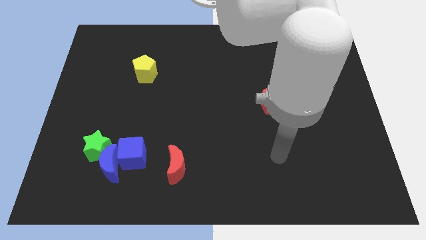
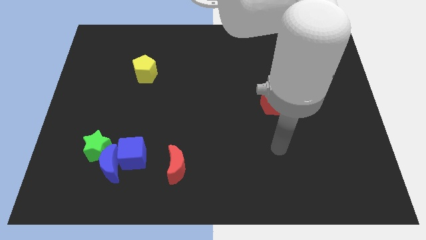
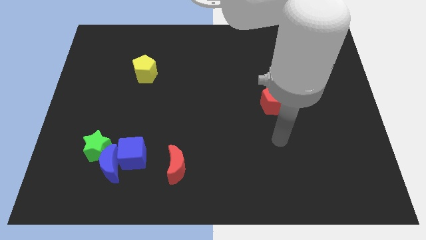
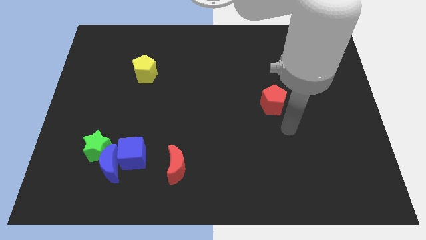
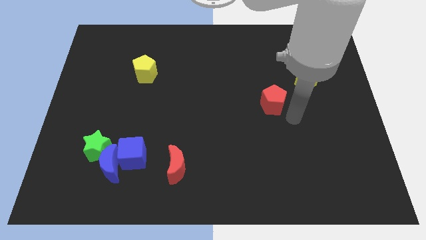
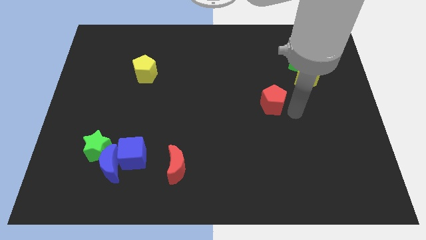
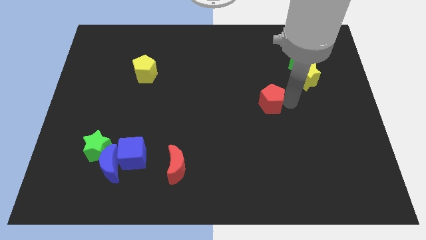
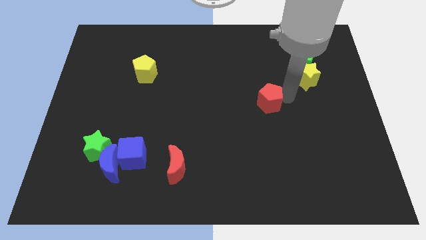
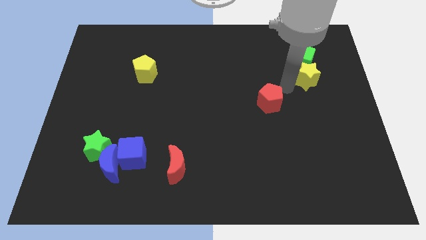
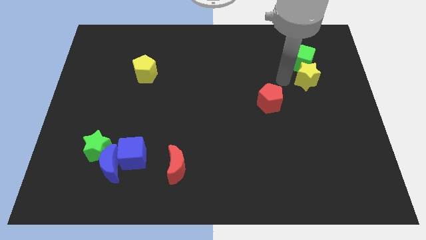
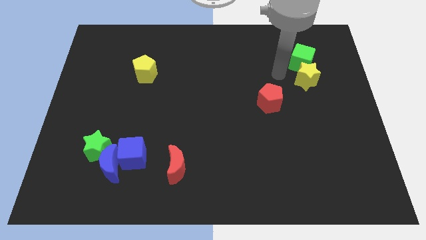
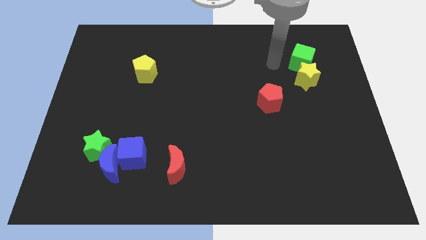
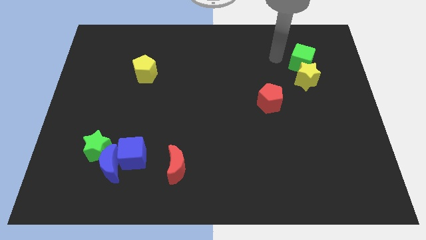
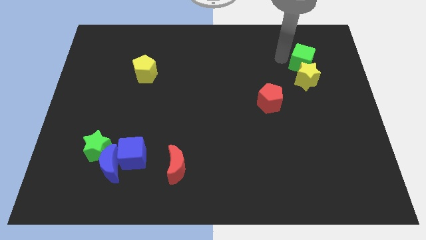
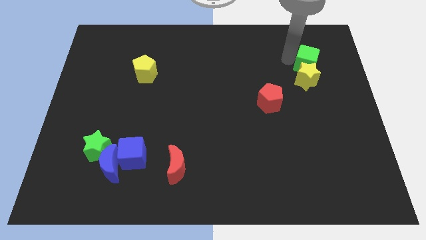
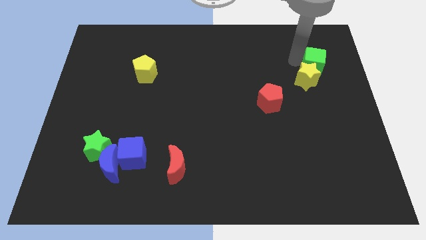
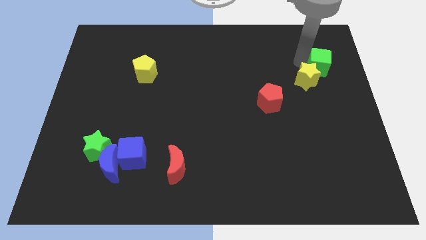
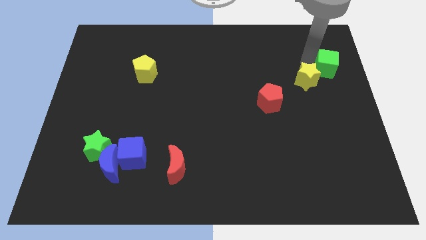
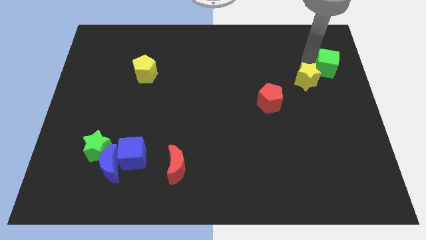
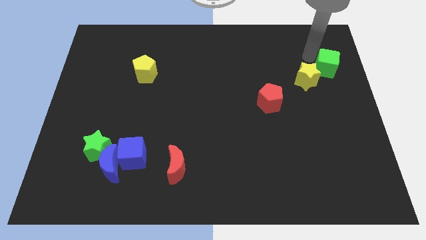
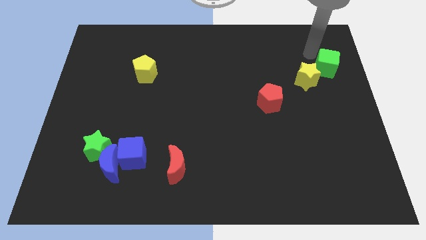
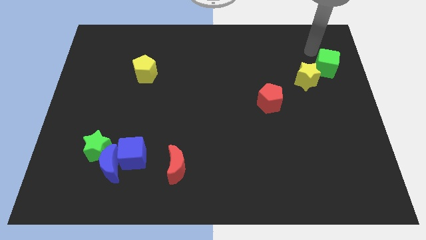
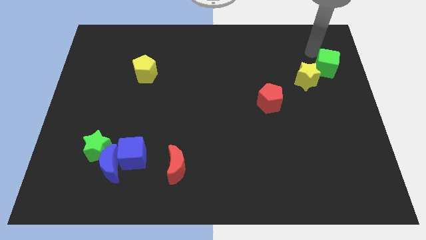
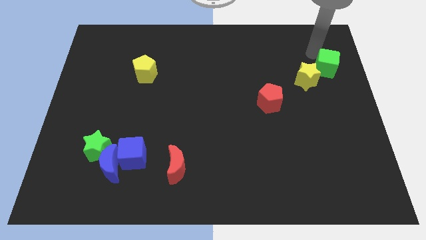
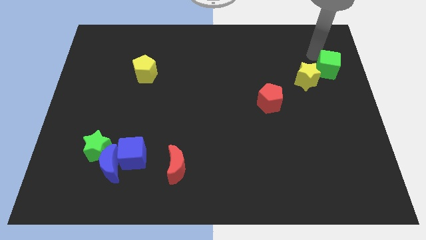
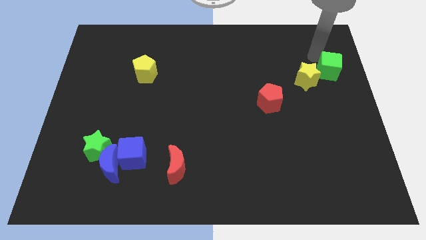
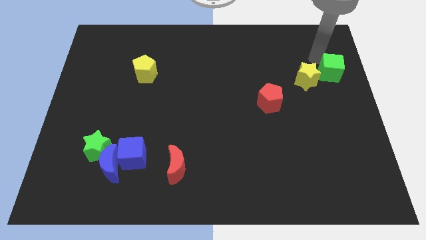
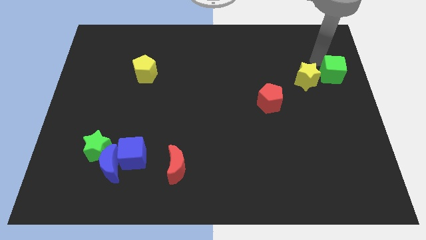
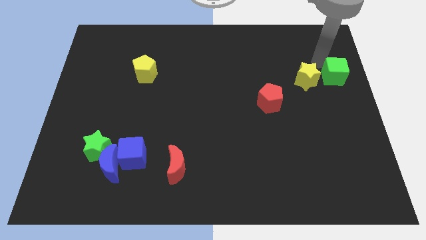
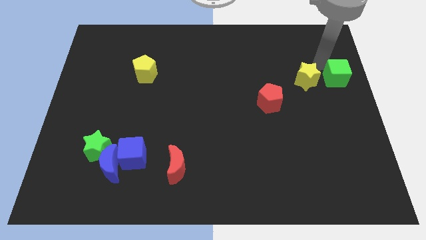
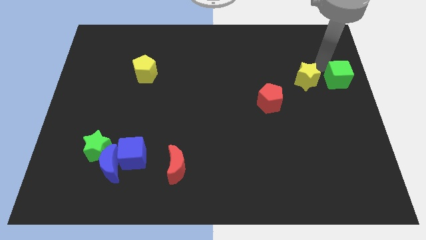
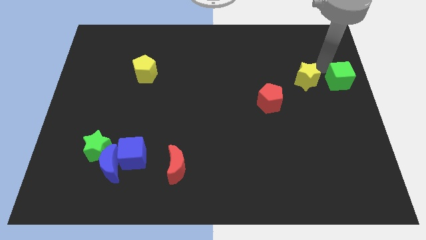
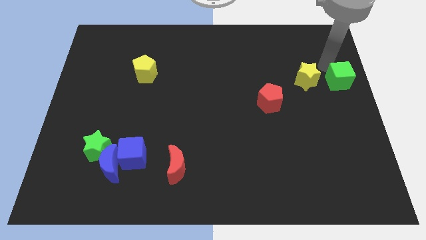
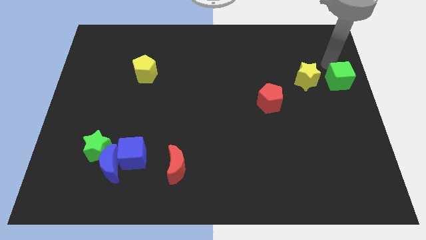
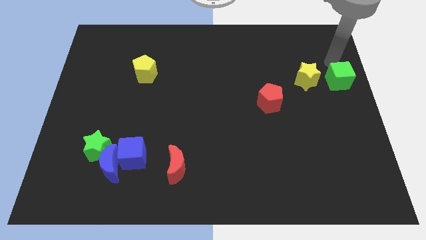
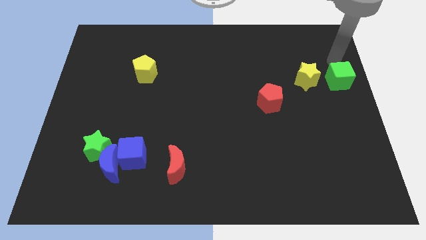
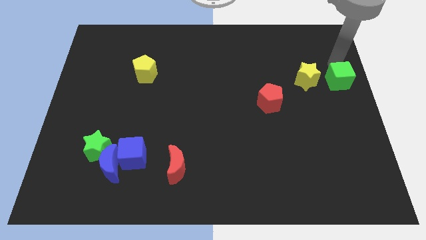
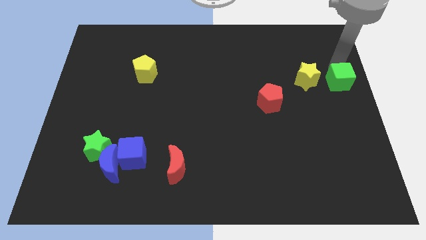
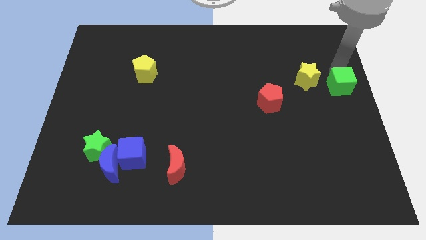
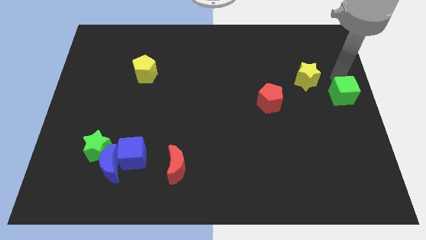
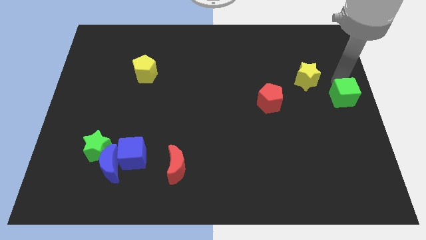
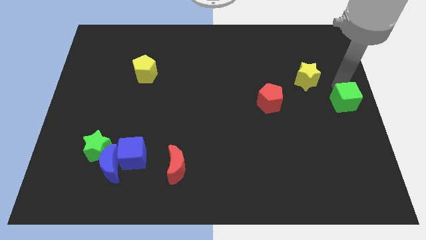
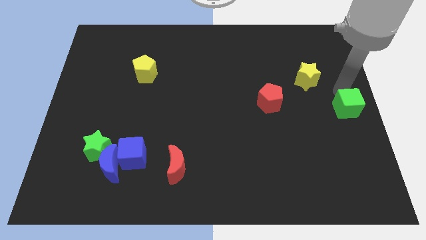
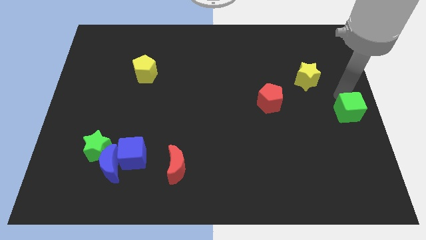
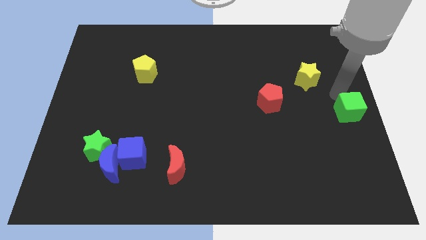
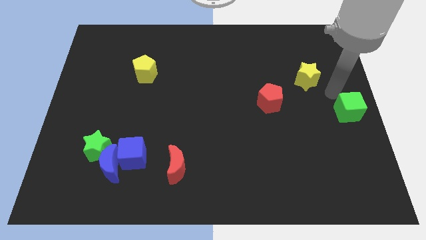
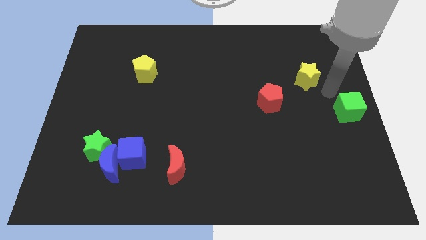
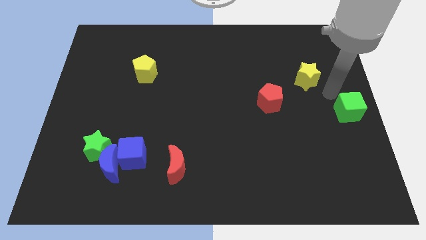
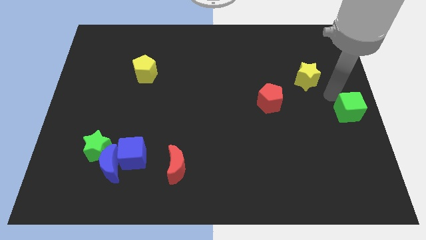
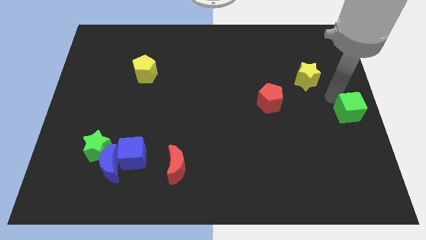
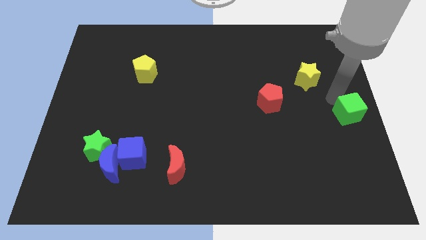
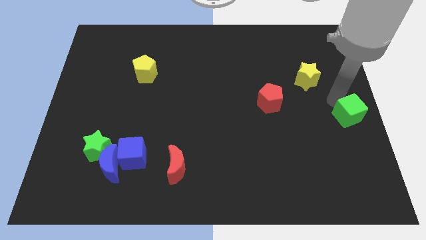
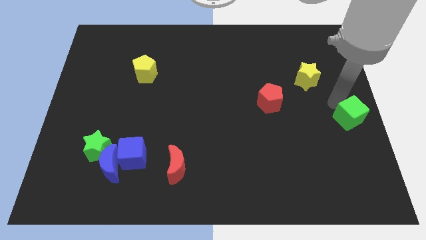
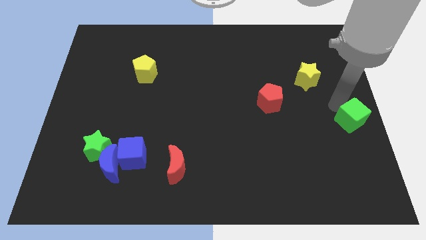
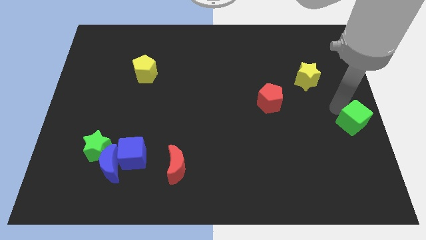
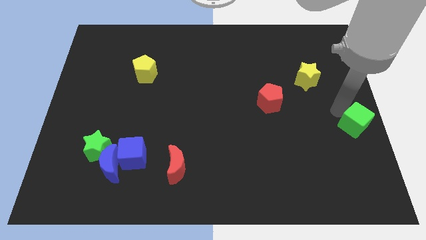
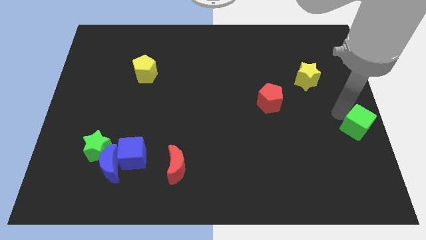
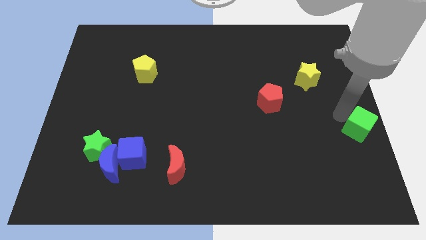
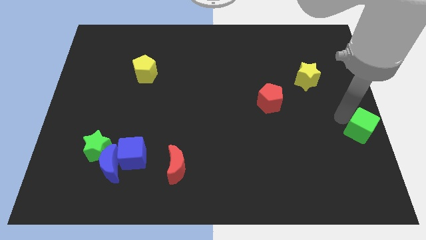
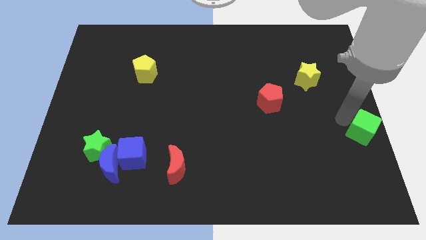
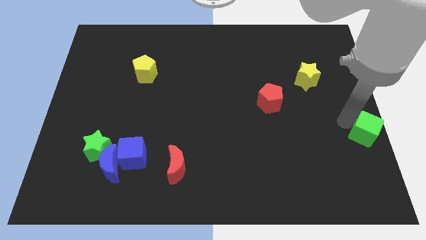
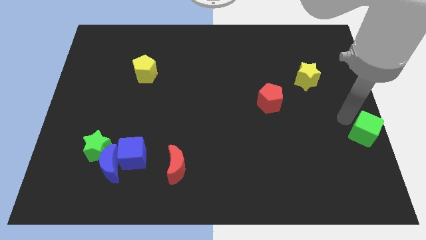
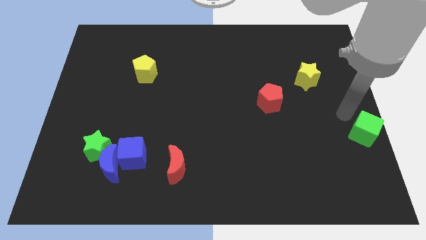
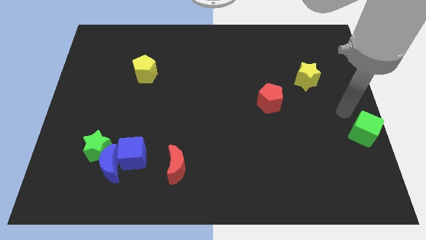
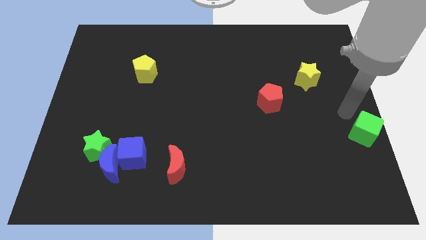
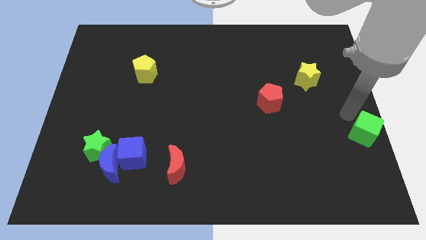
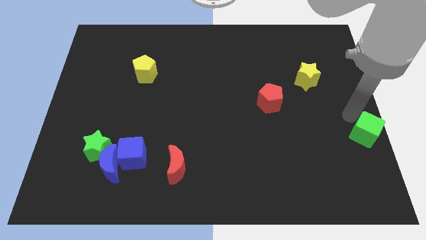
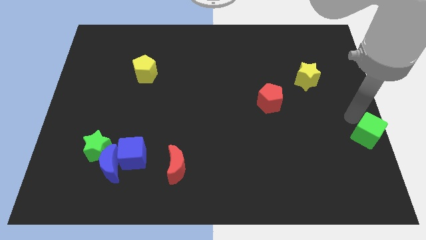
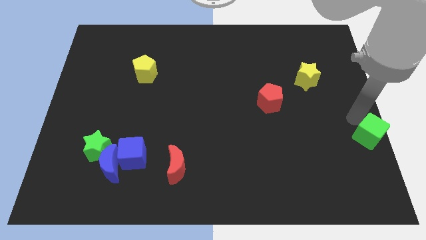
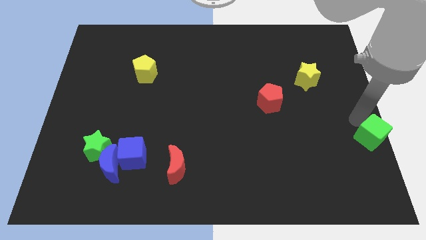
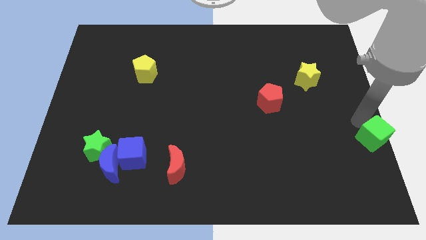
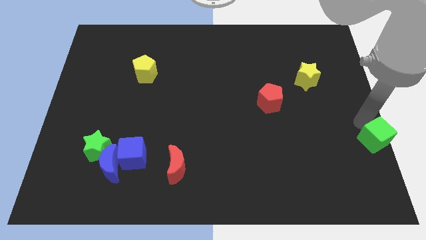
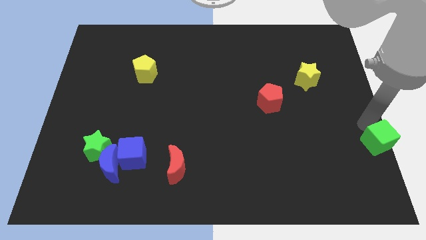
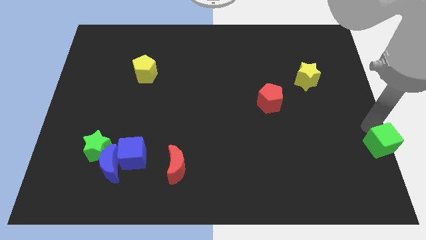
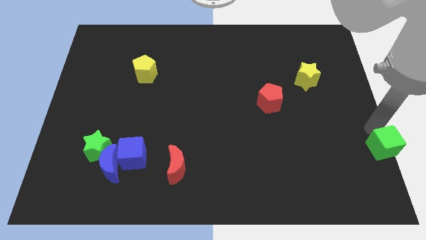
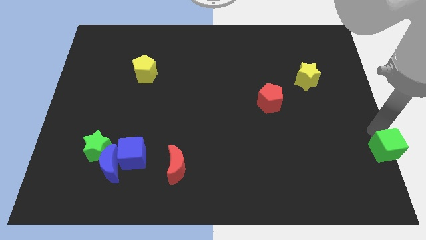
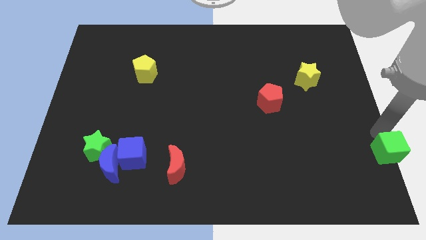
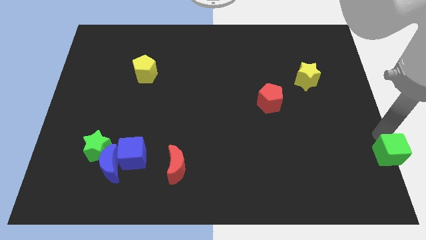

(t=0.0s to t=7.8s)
put the green cube to the lower right corner
